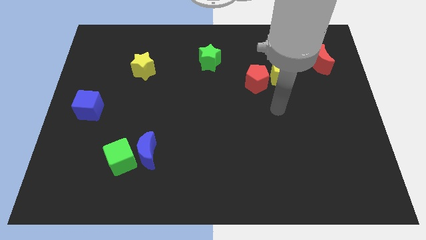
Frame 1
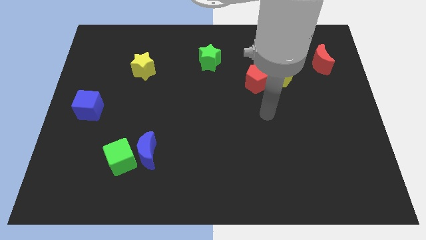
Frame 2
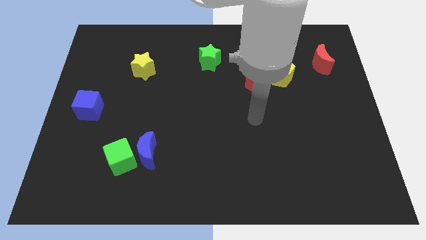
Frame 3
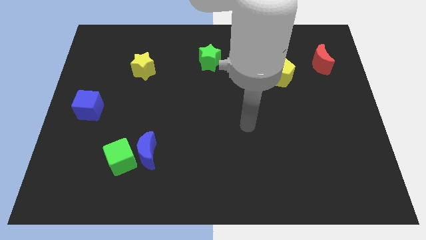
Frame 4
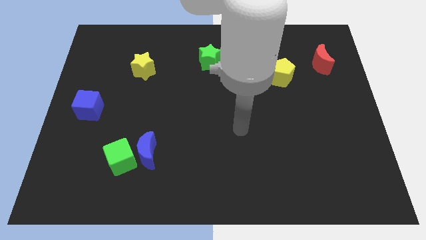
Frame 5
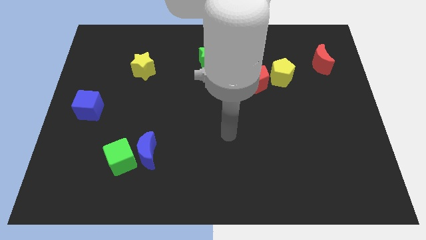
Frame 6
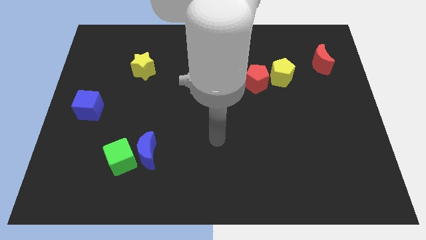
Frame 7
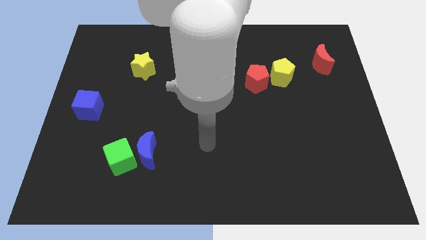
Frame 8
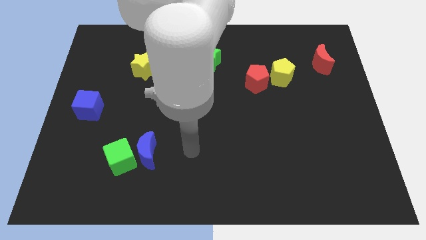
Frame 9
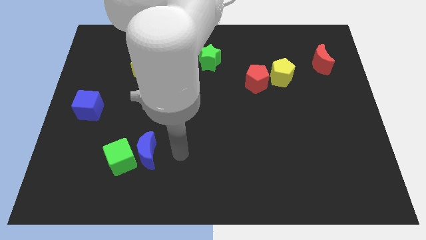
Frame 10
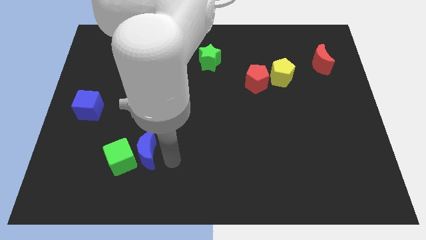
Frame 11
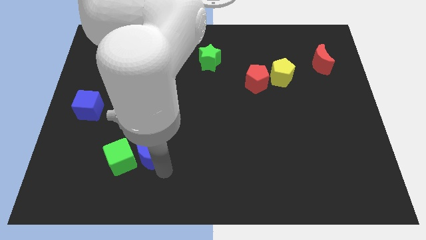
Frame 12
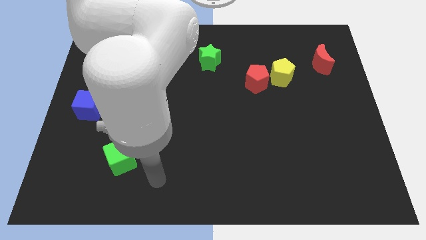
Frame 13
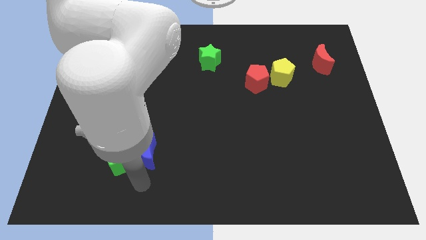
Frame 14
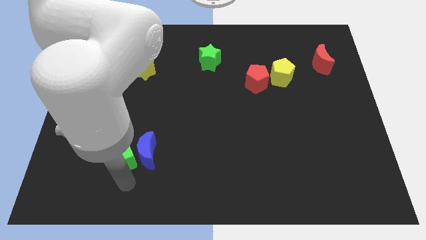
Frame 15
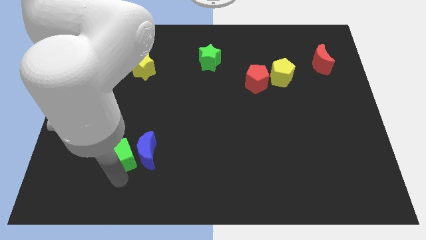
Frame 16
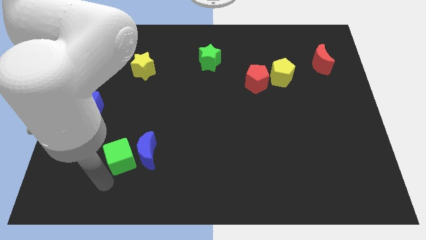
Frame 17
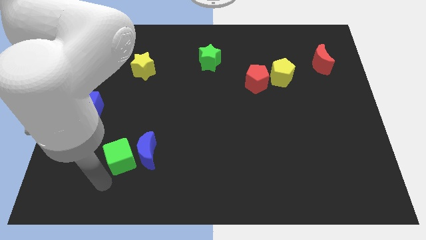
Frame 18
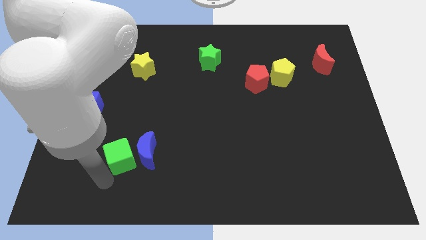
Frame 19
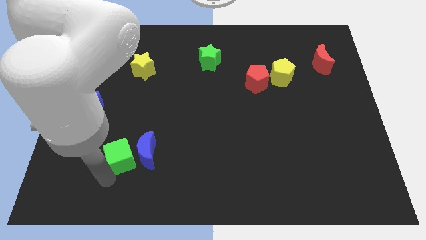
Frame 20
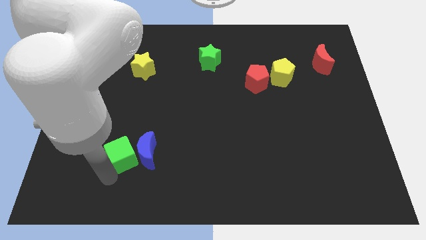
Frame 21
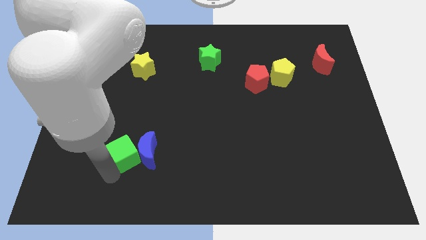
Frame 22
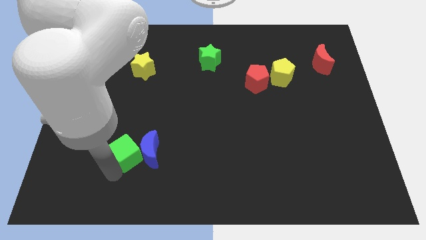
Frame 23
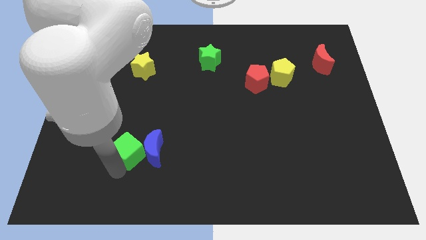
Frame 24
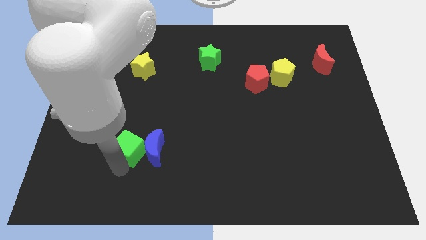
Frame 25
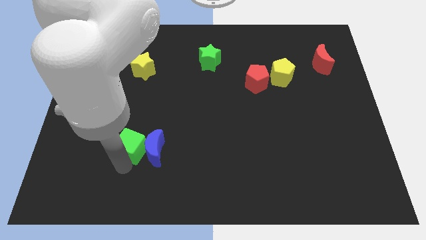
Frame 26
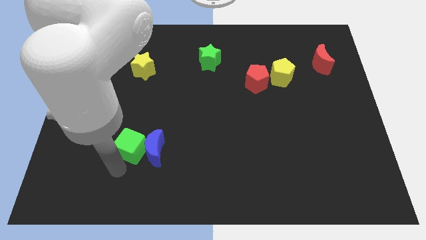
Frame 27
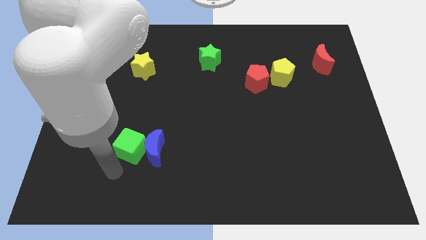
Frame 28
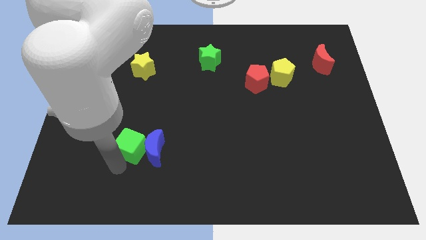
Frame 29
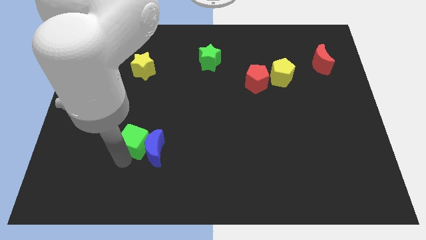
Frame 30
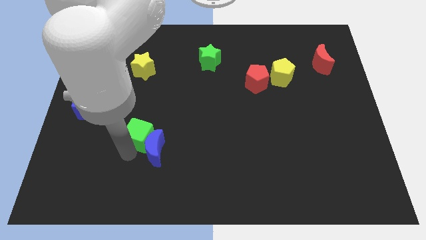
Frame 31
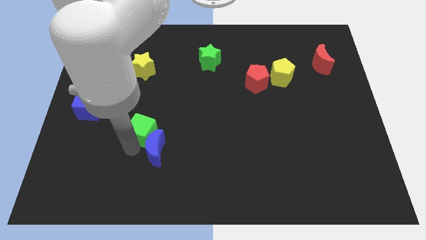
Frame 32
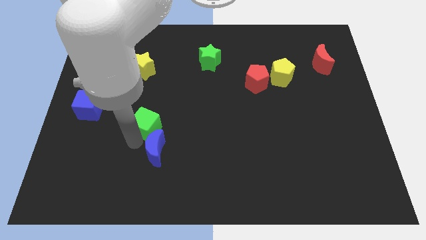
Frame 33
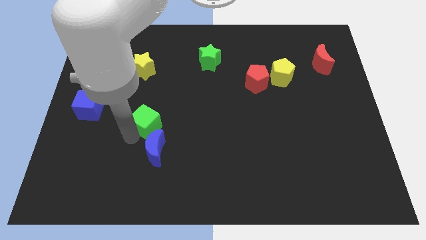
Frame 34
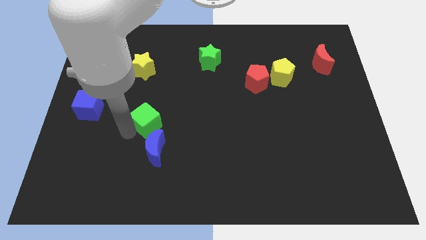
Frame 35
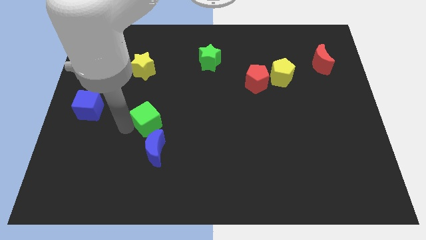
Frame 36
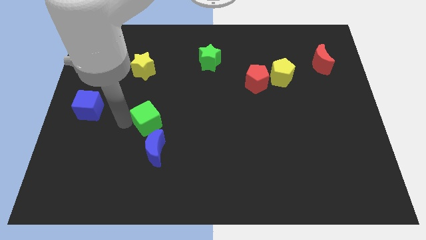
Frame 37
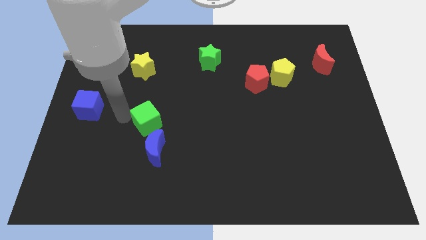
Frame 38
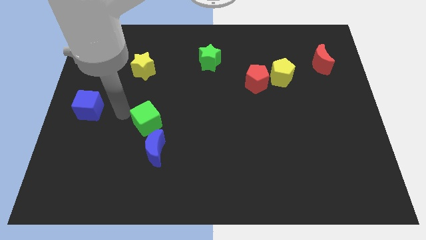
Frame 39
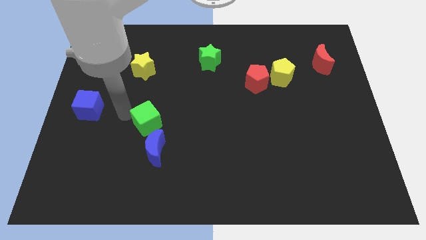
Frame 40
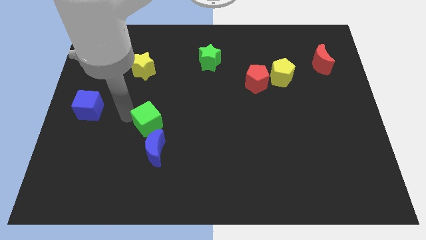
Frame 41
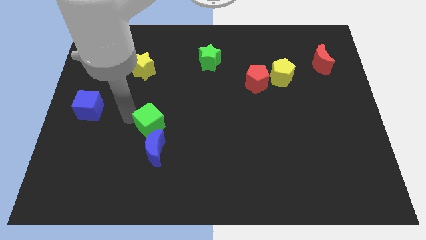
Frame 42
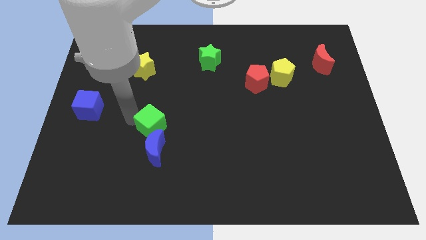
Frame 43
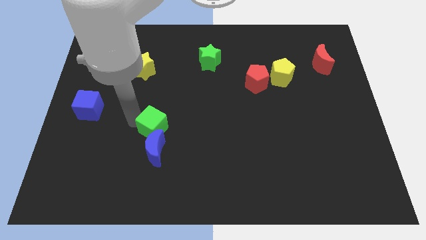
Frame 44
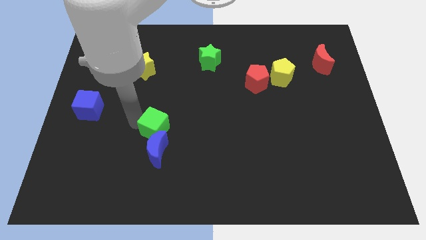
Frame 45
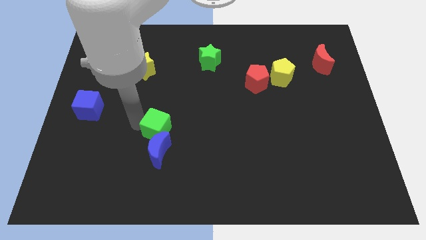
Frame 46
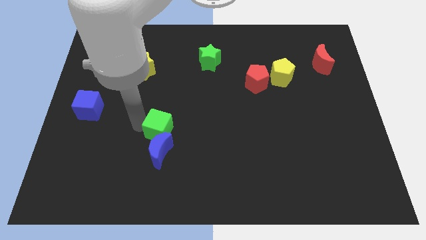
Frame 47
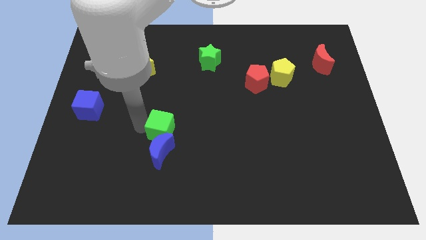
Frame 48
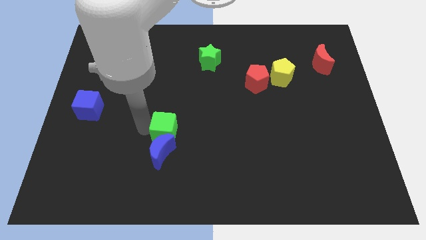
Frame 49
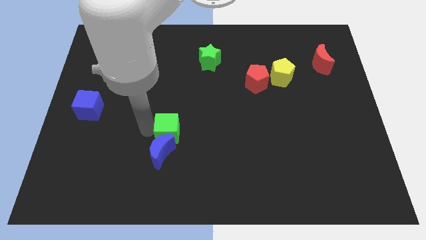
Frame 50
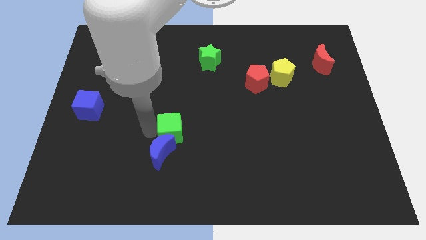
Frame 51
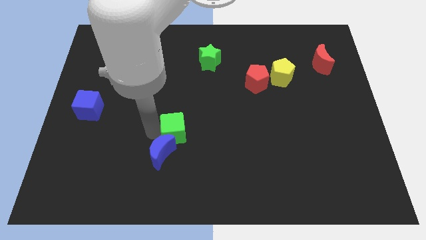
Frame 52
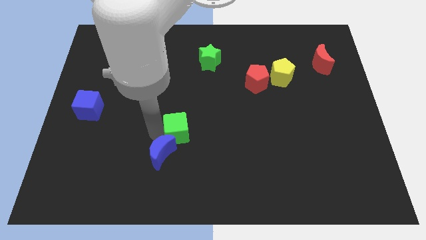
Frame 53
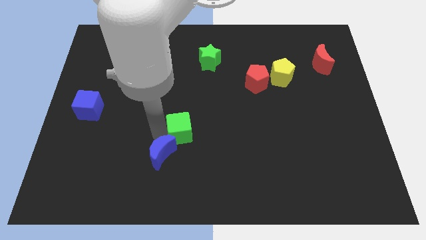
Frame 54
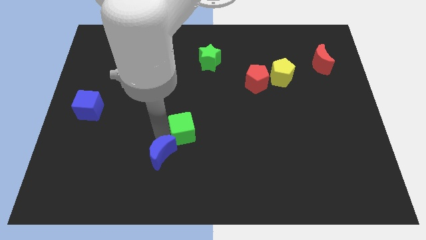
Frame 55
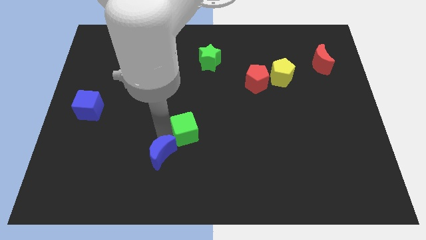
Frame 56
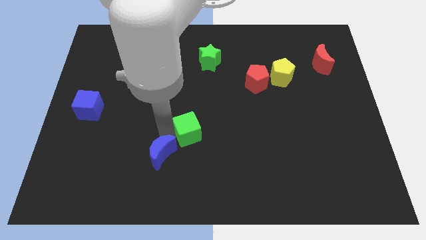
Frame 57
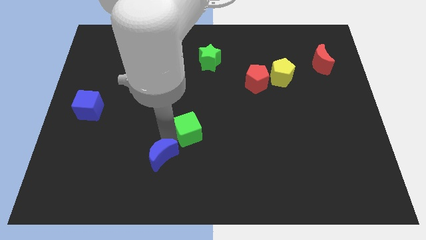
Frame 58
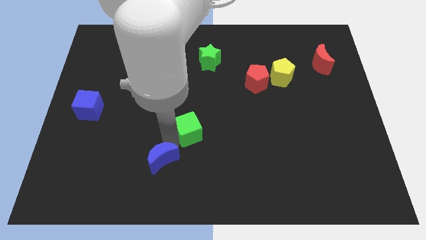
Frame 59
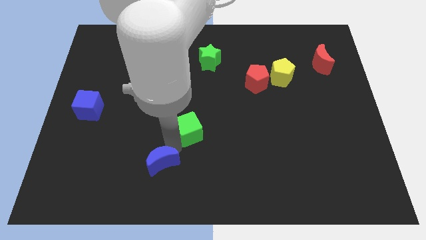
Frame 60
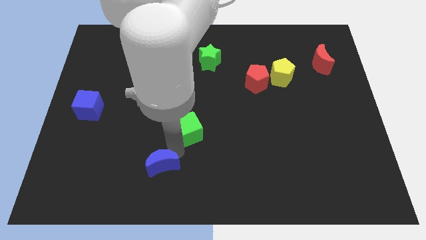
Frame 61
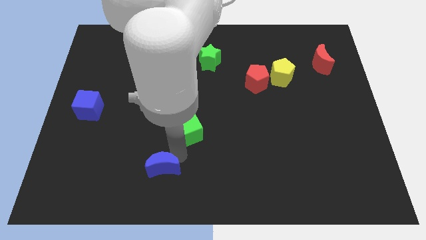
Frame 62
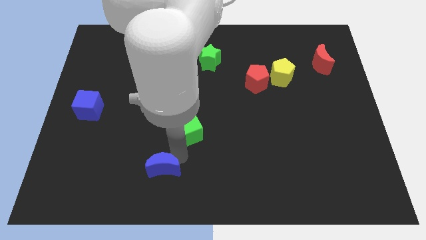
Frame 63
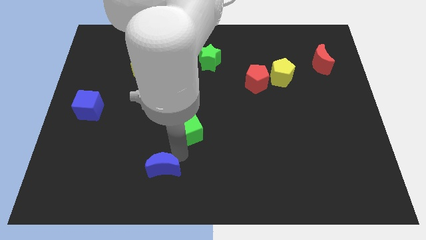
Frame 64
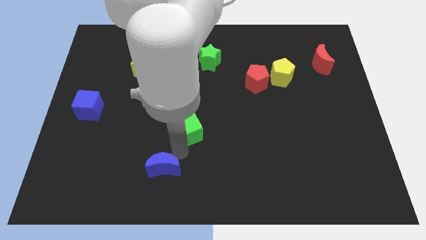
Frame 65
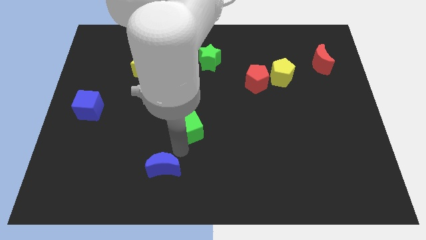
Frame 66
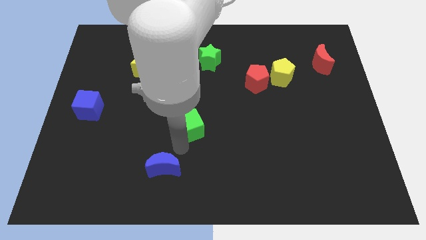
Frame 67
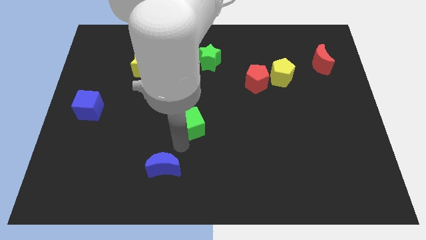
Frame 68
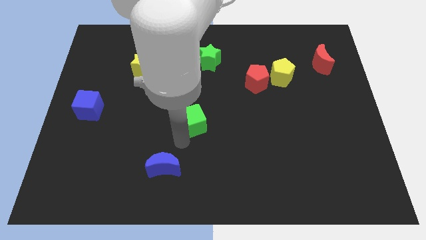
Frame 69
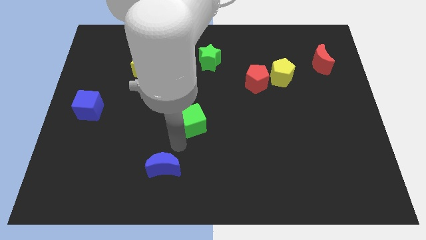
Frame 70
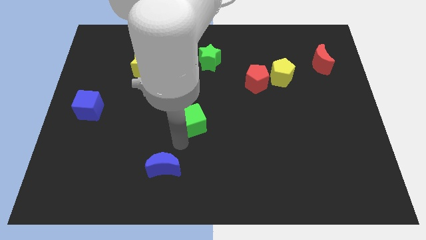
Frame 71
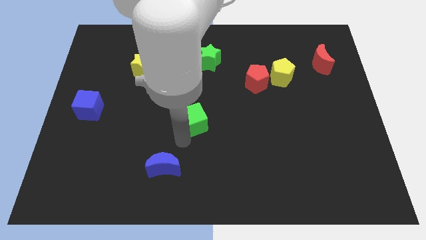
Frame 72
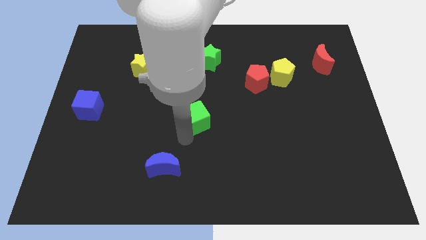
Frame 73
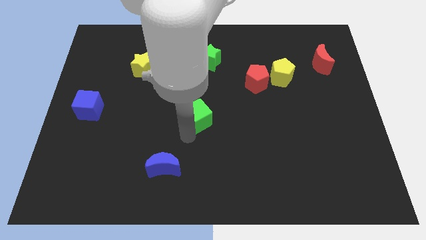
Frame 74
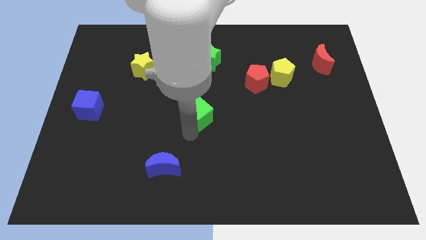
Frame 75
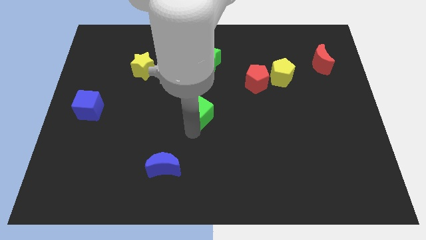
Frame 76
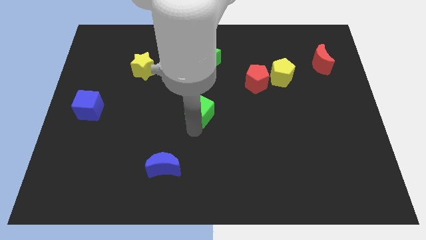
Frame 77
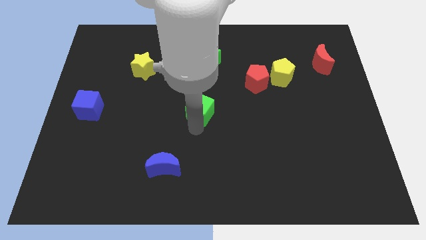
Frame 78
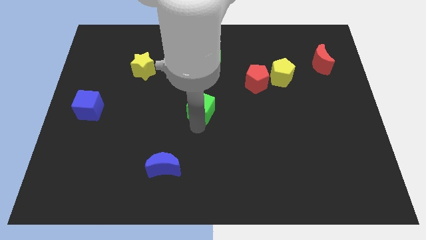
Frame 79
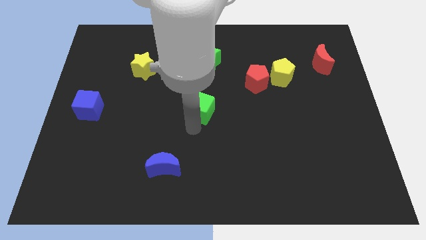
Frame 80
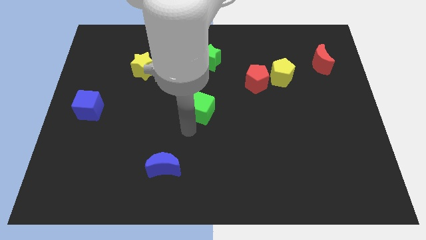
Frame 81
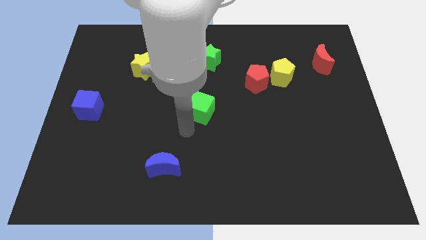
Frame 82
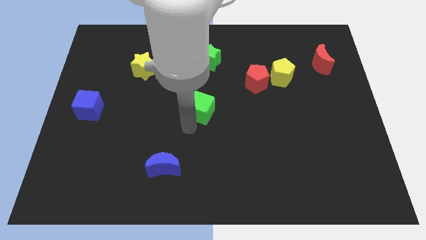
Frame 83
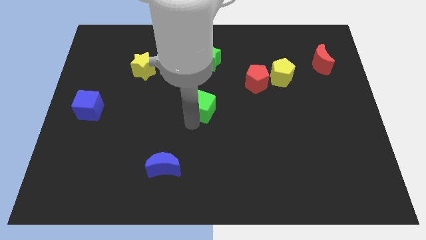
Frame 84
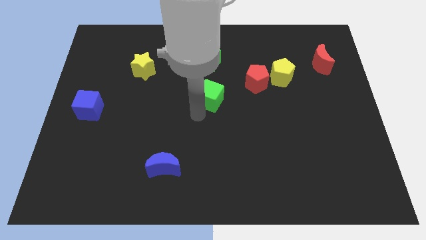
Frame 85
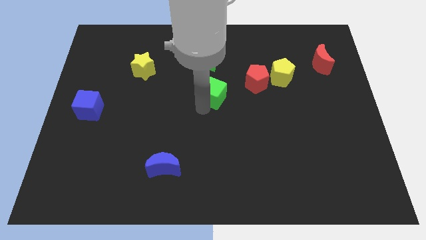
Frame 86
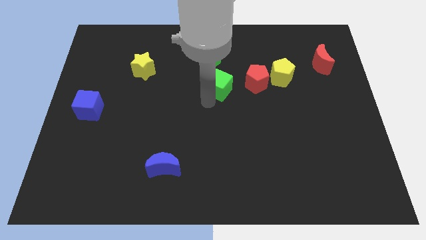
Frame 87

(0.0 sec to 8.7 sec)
put the green cube diagonally down and to the right of the green star
